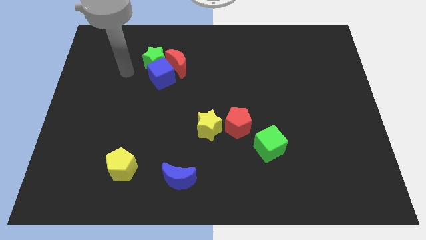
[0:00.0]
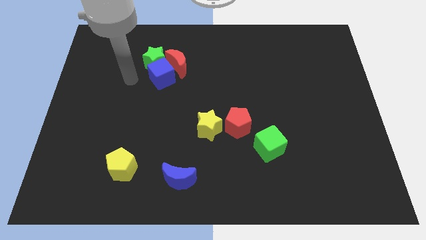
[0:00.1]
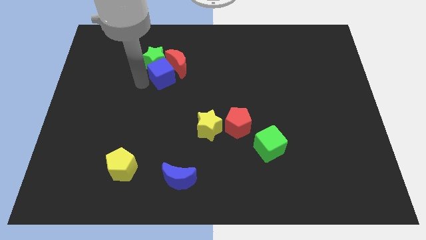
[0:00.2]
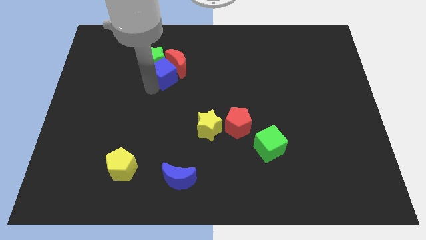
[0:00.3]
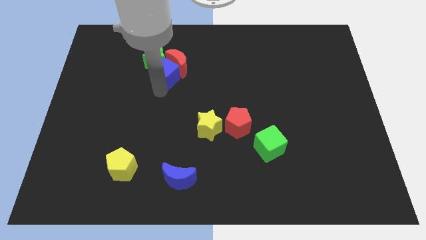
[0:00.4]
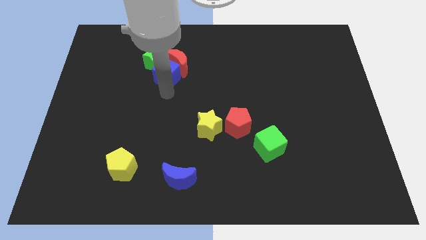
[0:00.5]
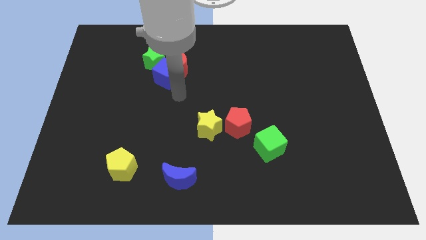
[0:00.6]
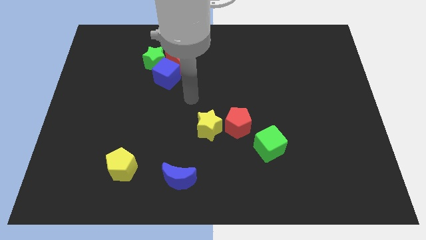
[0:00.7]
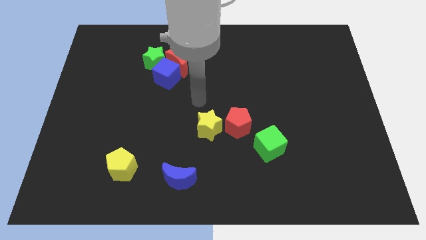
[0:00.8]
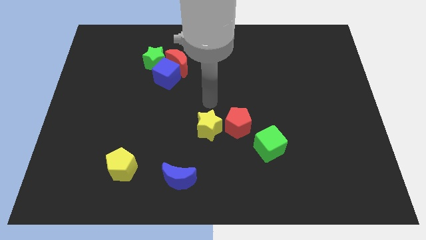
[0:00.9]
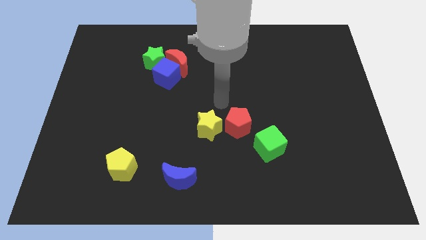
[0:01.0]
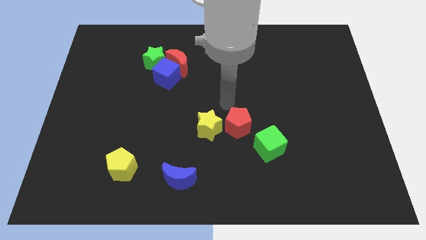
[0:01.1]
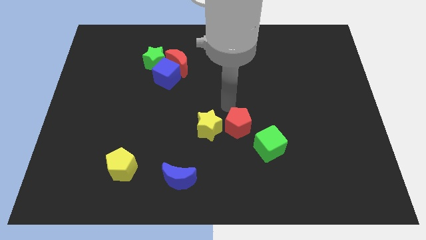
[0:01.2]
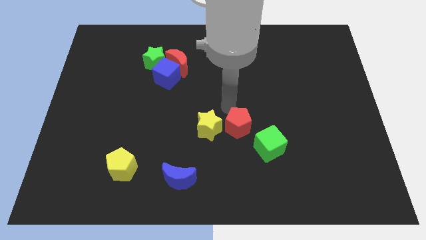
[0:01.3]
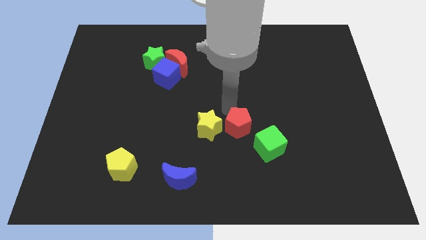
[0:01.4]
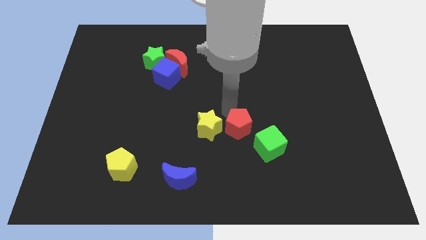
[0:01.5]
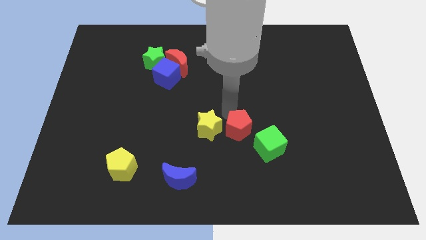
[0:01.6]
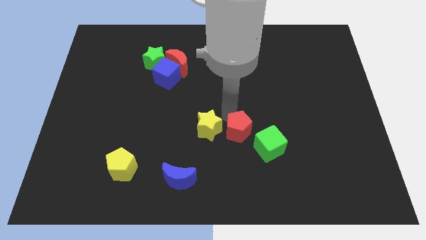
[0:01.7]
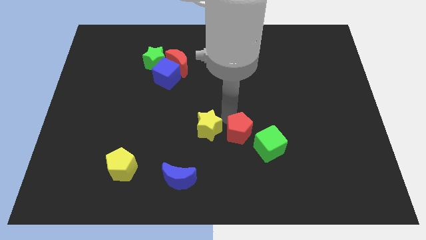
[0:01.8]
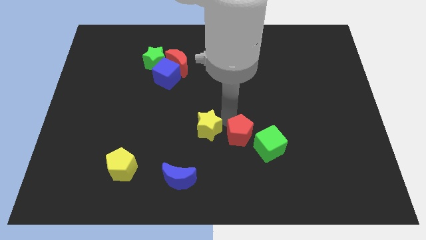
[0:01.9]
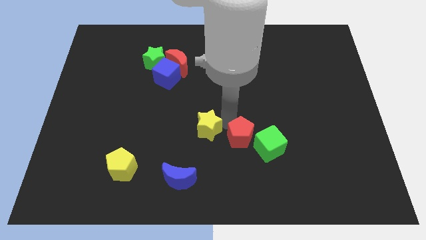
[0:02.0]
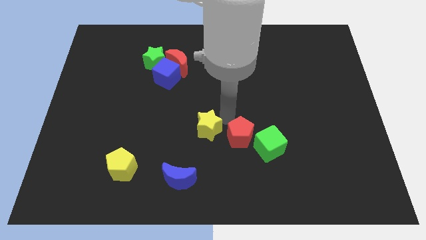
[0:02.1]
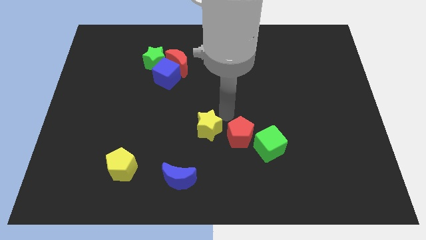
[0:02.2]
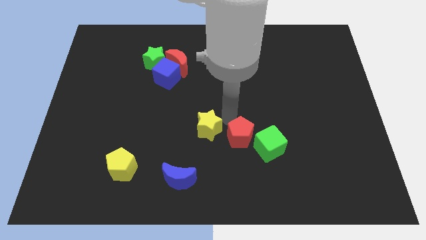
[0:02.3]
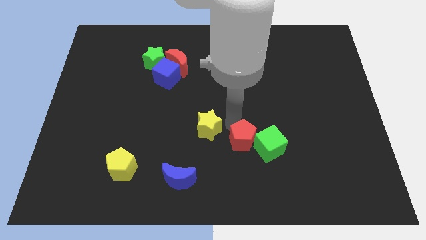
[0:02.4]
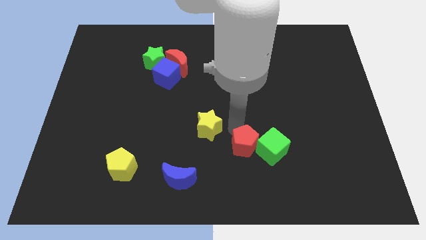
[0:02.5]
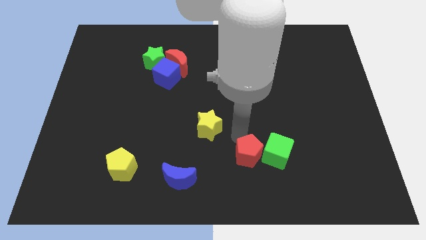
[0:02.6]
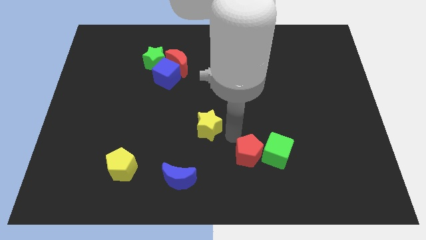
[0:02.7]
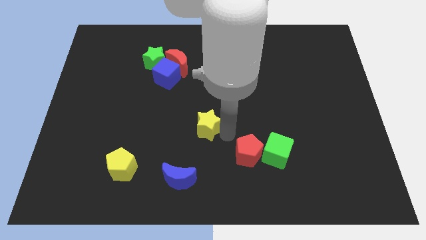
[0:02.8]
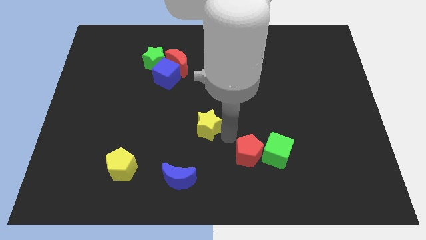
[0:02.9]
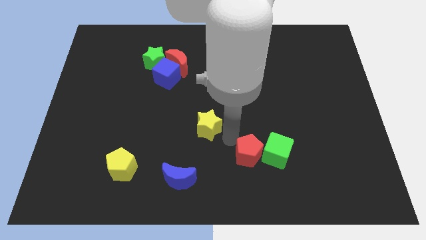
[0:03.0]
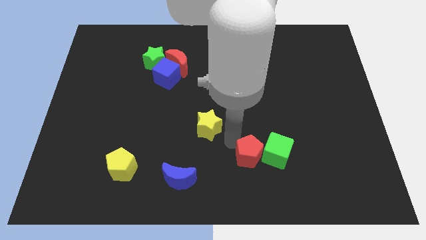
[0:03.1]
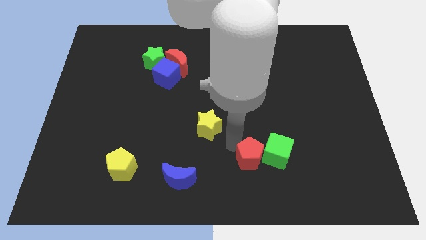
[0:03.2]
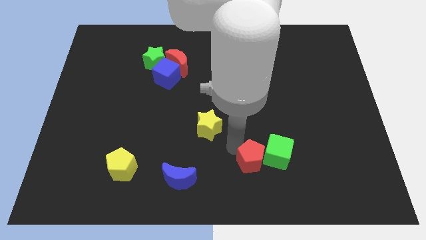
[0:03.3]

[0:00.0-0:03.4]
slightly slide the red pentagon diagonally down and to the right

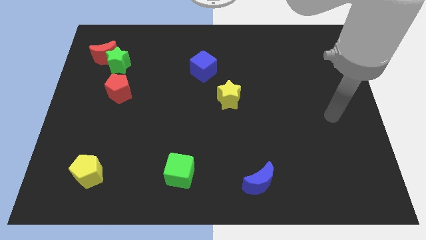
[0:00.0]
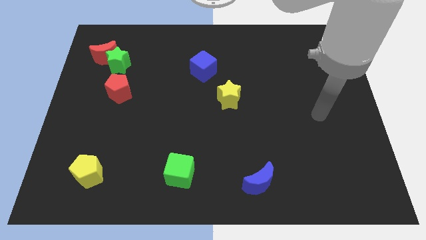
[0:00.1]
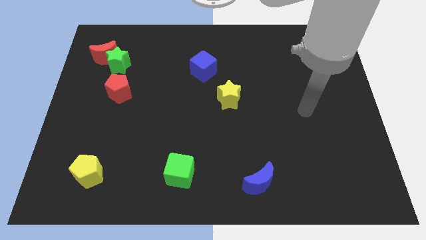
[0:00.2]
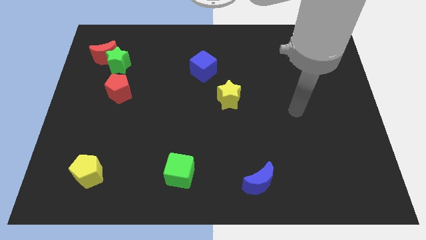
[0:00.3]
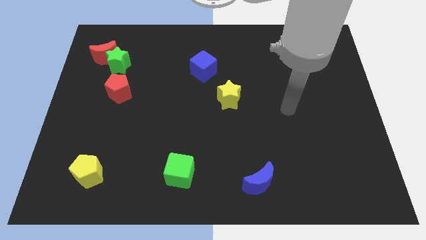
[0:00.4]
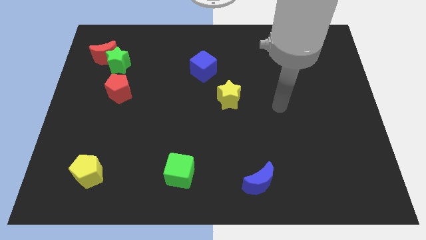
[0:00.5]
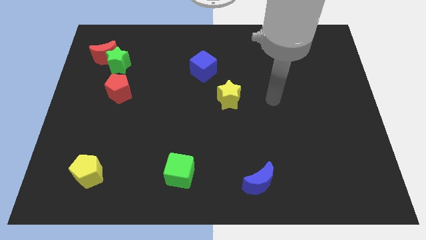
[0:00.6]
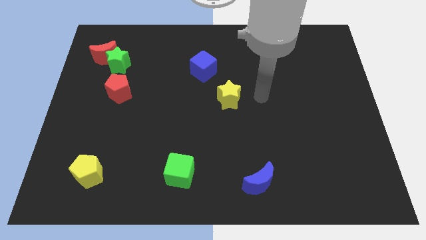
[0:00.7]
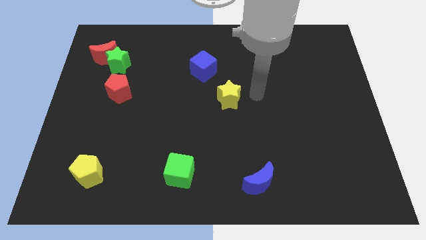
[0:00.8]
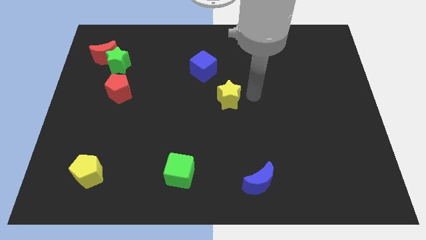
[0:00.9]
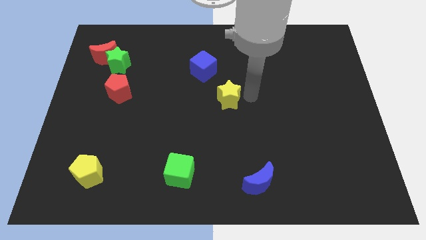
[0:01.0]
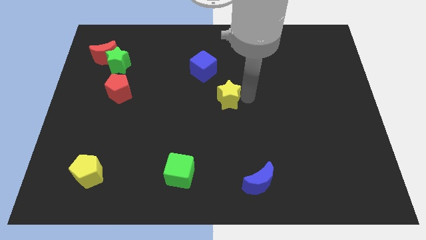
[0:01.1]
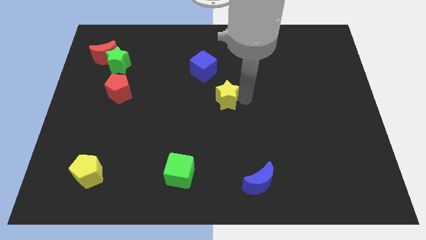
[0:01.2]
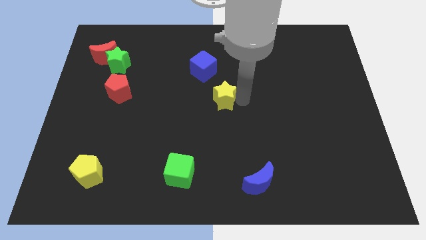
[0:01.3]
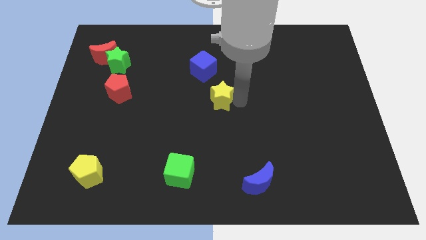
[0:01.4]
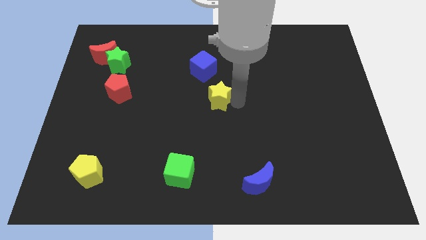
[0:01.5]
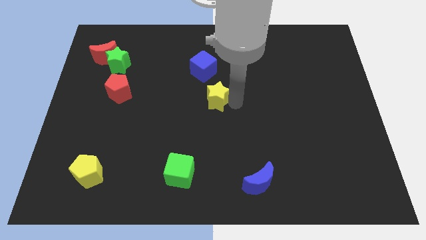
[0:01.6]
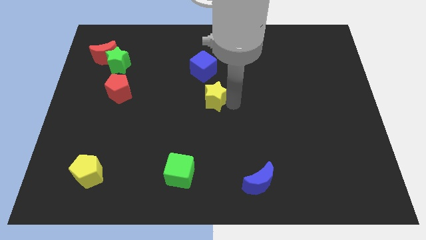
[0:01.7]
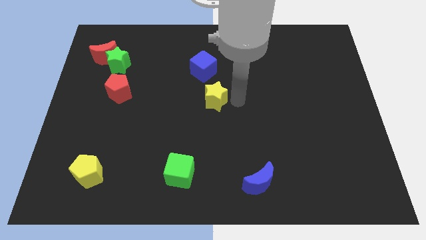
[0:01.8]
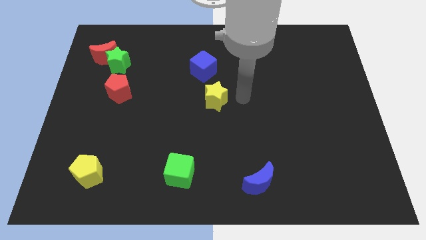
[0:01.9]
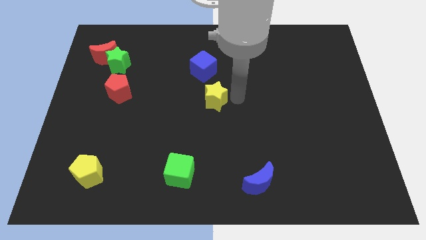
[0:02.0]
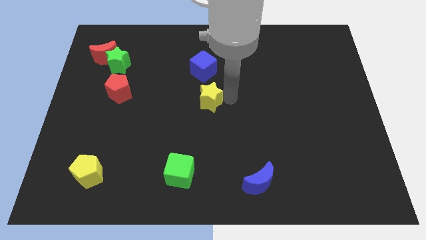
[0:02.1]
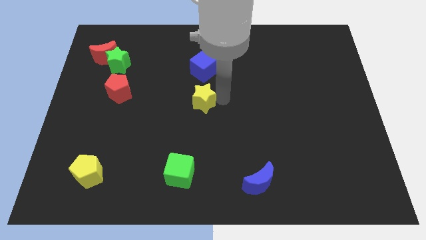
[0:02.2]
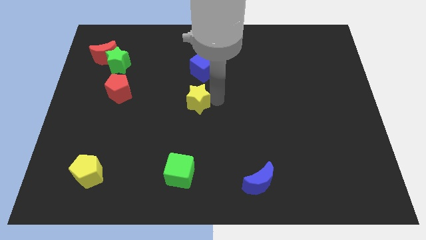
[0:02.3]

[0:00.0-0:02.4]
push the yellow star a little bit left

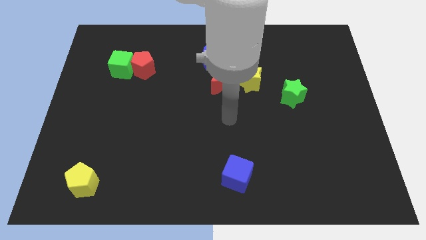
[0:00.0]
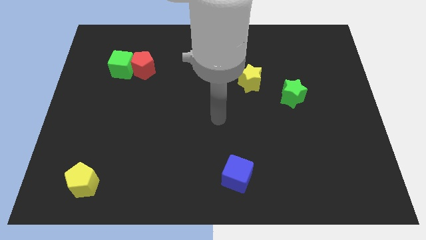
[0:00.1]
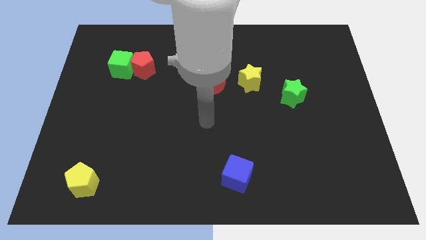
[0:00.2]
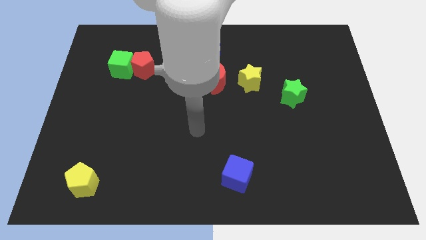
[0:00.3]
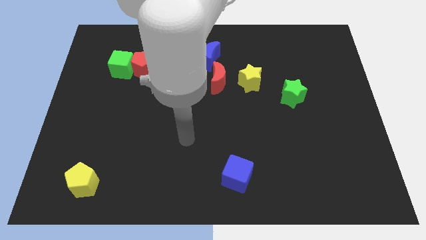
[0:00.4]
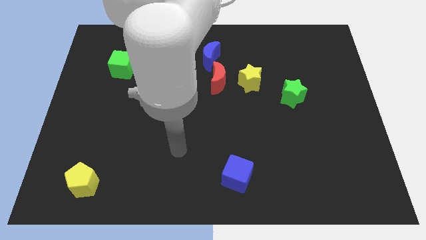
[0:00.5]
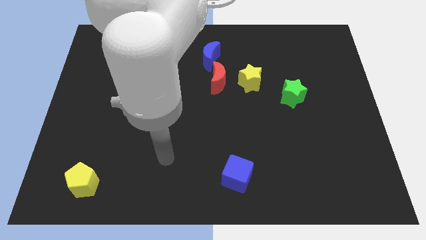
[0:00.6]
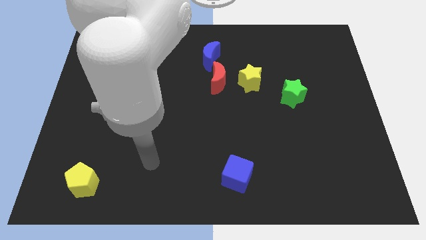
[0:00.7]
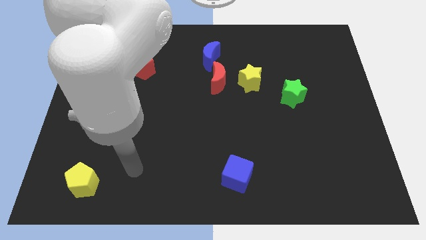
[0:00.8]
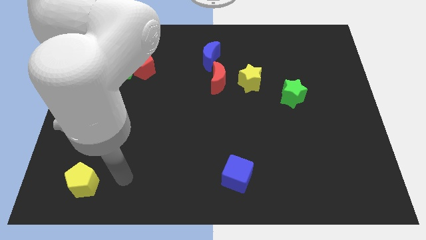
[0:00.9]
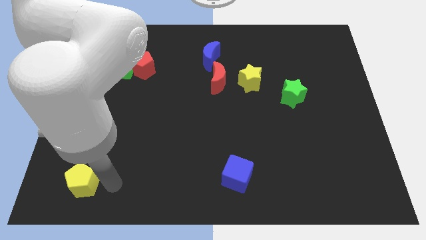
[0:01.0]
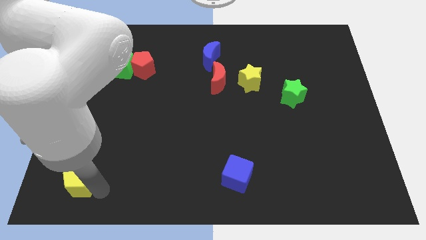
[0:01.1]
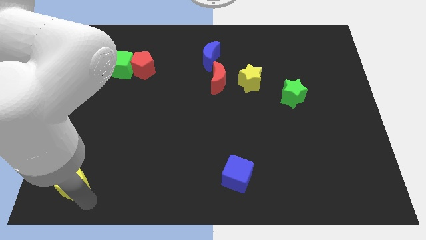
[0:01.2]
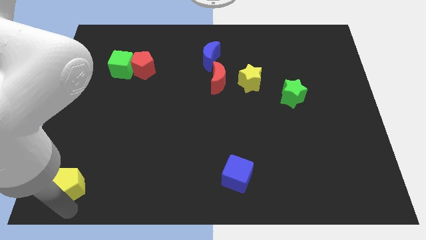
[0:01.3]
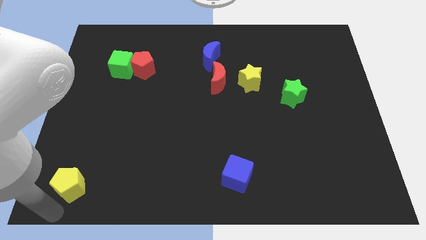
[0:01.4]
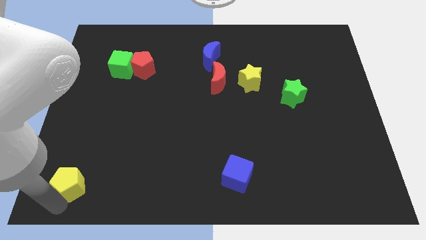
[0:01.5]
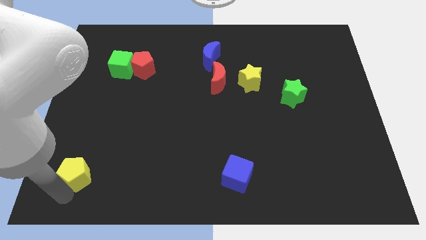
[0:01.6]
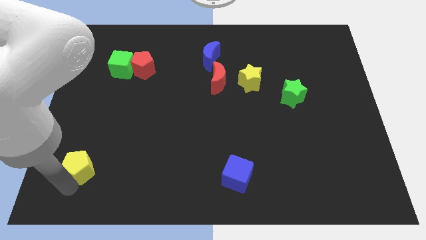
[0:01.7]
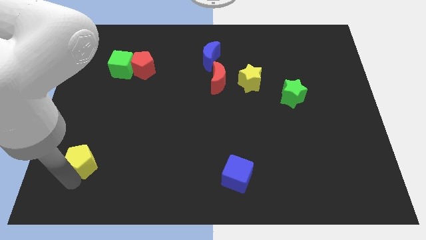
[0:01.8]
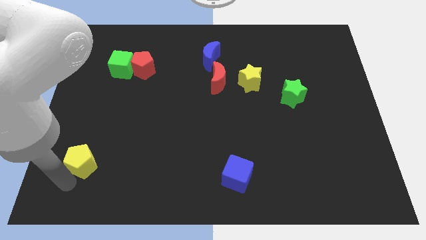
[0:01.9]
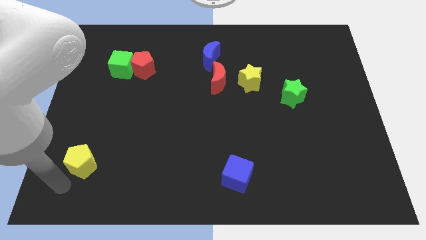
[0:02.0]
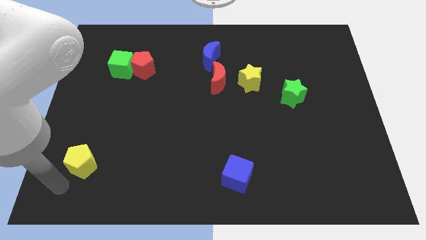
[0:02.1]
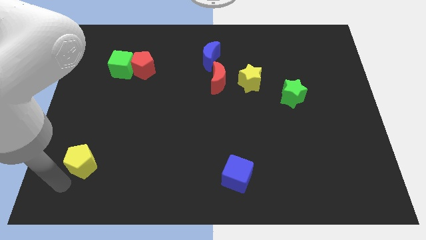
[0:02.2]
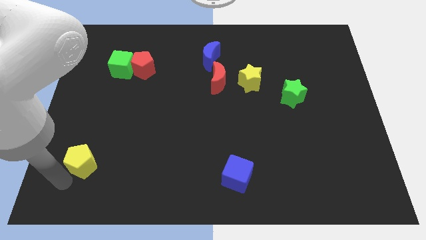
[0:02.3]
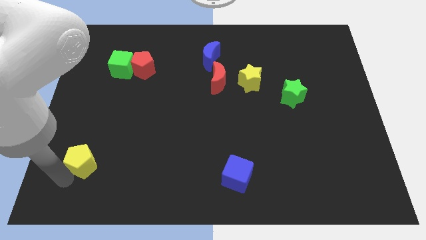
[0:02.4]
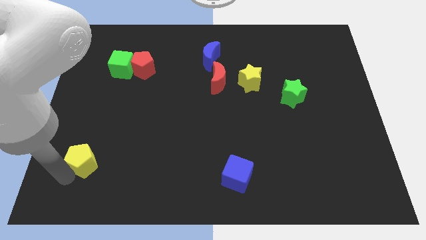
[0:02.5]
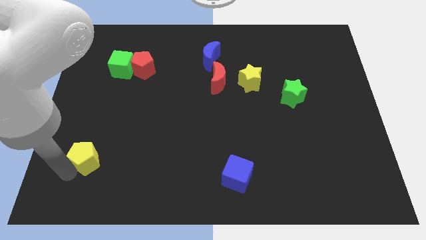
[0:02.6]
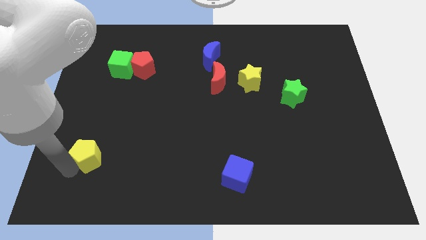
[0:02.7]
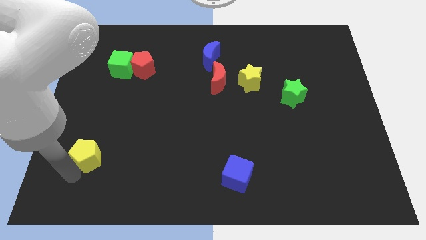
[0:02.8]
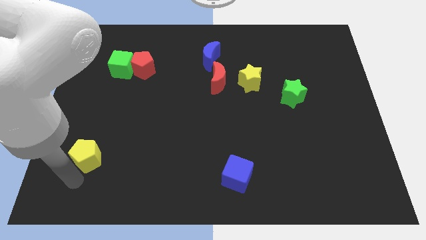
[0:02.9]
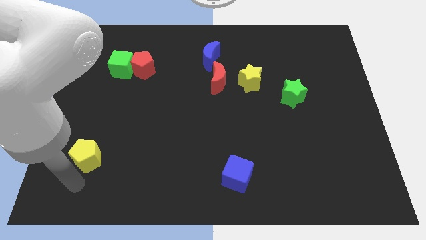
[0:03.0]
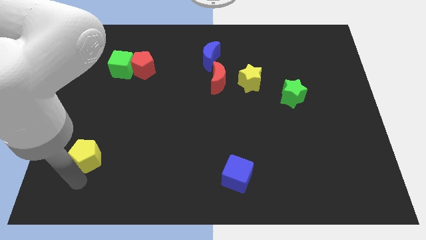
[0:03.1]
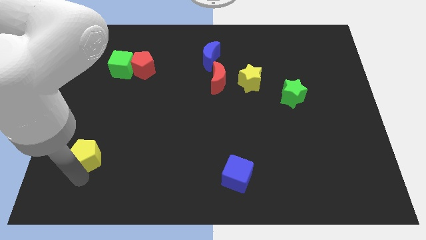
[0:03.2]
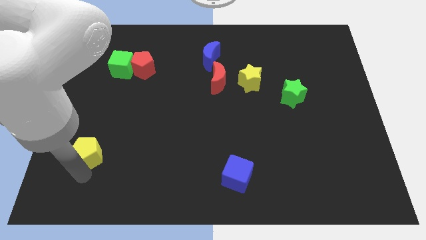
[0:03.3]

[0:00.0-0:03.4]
move the yellow pentagon up slightly
